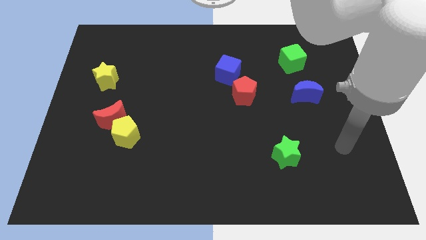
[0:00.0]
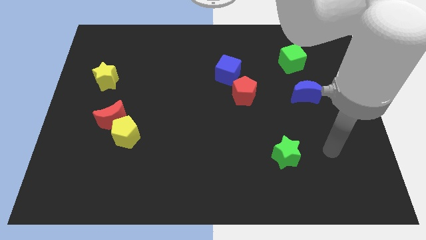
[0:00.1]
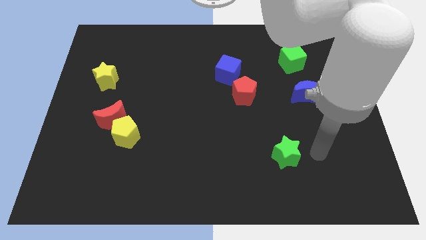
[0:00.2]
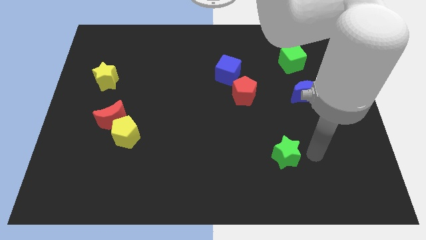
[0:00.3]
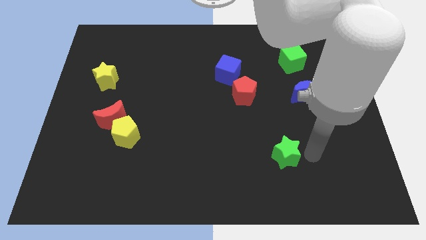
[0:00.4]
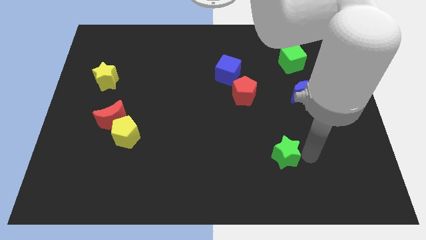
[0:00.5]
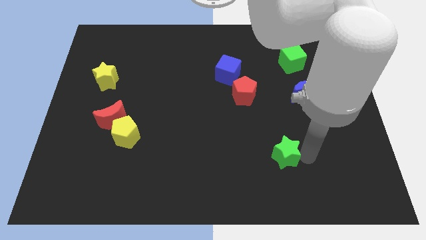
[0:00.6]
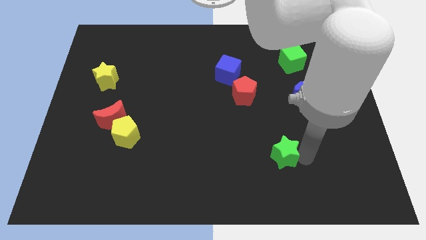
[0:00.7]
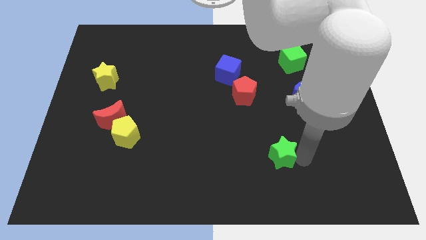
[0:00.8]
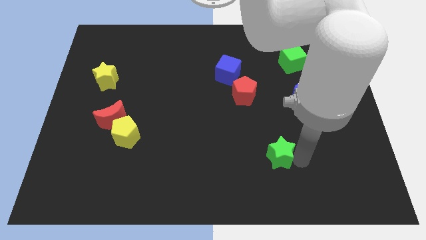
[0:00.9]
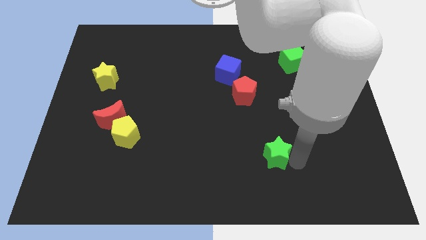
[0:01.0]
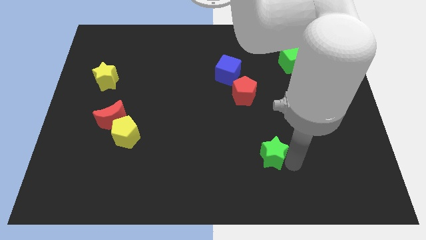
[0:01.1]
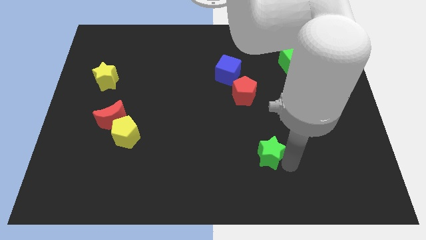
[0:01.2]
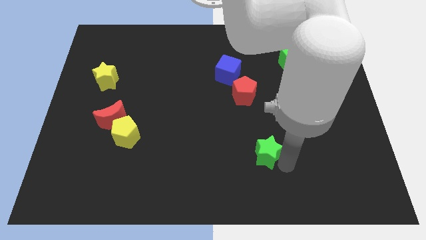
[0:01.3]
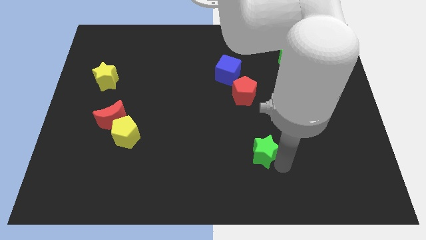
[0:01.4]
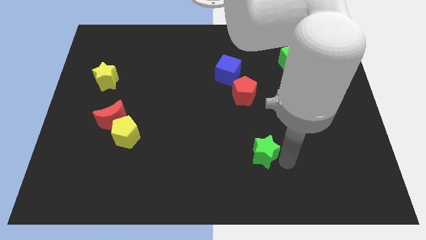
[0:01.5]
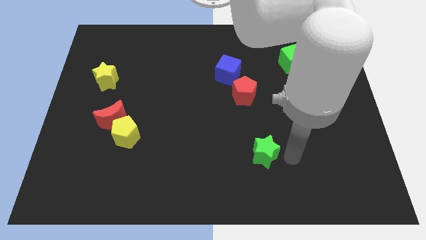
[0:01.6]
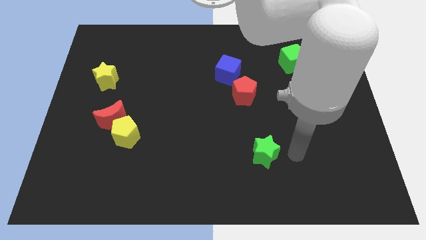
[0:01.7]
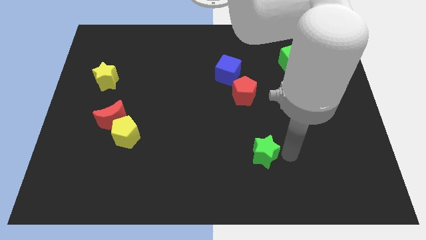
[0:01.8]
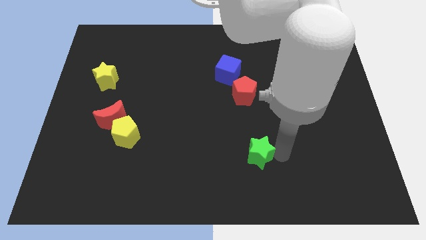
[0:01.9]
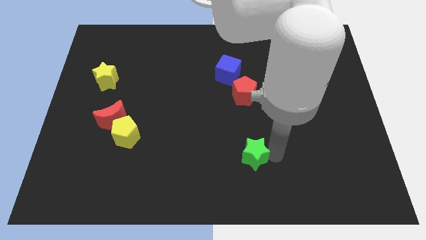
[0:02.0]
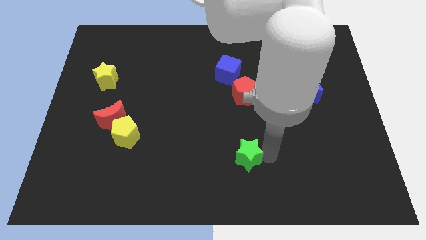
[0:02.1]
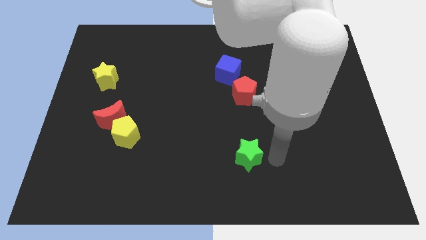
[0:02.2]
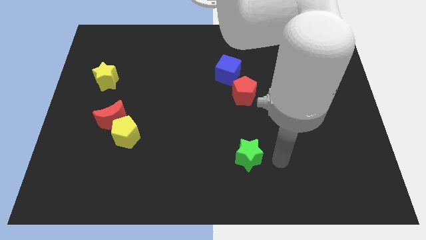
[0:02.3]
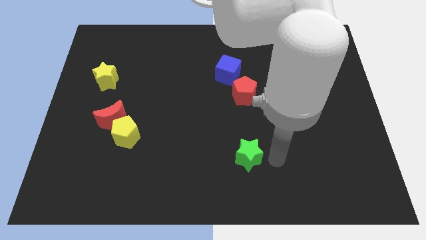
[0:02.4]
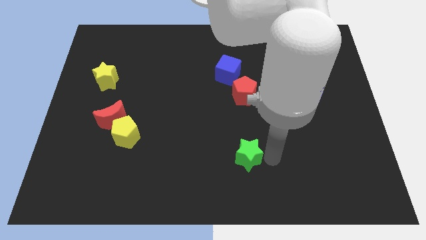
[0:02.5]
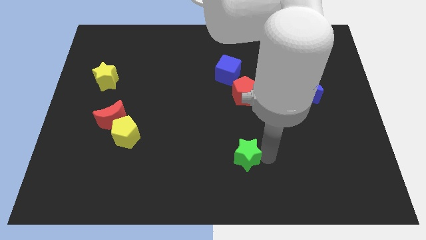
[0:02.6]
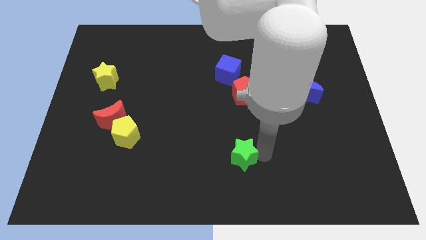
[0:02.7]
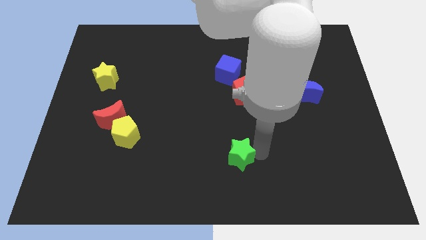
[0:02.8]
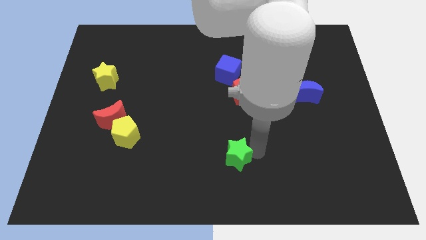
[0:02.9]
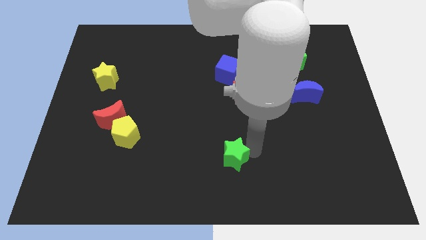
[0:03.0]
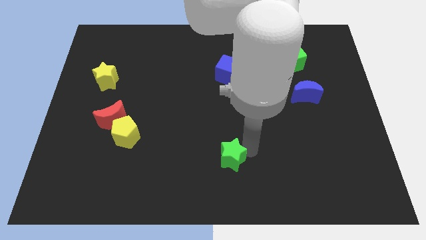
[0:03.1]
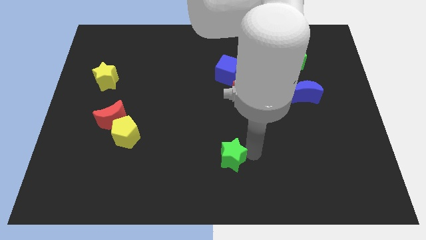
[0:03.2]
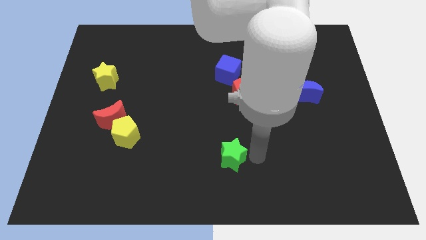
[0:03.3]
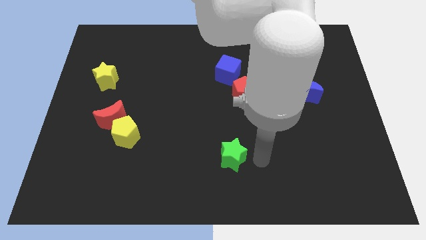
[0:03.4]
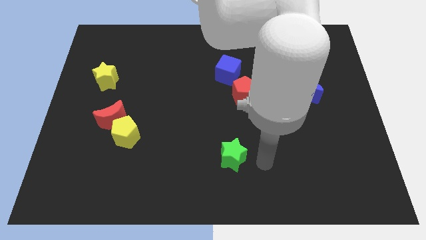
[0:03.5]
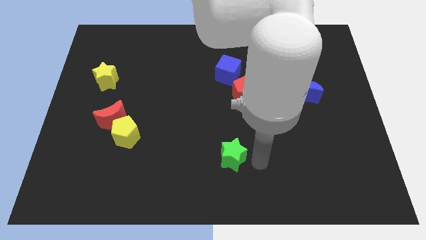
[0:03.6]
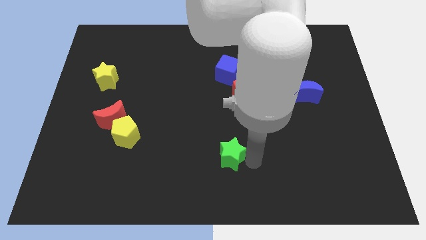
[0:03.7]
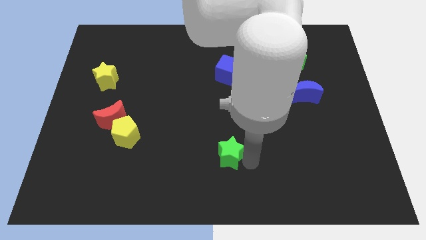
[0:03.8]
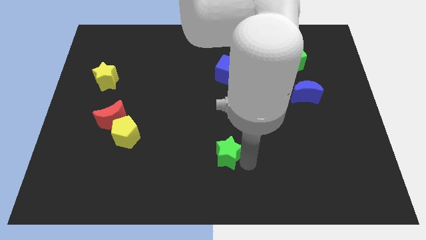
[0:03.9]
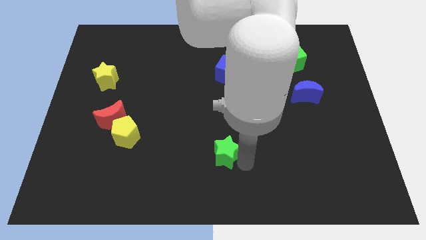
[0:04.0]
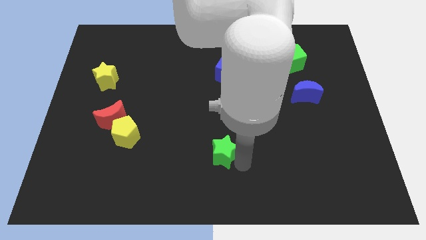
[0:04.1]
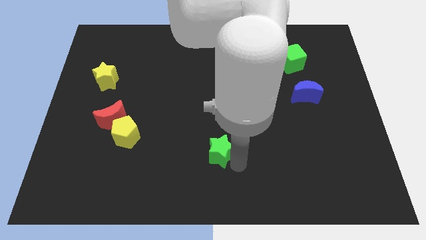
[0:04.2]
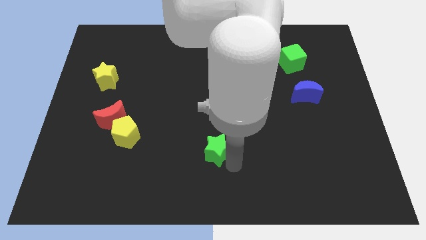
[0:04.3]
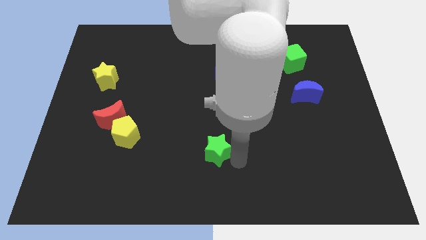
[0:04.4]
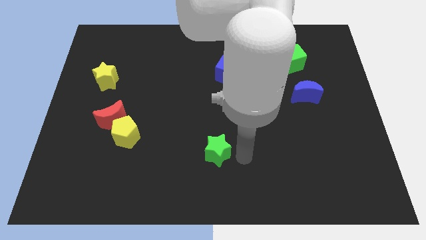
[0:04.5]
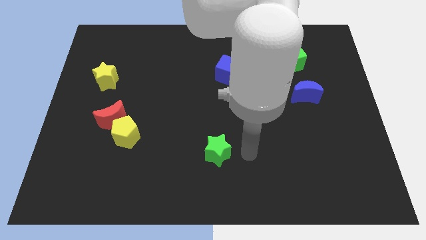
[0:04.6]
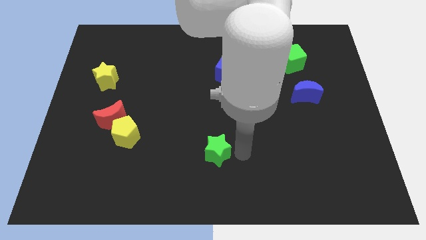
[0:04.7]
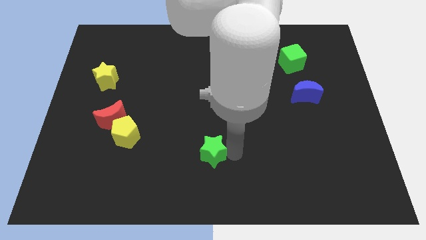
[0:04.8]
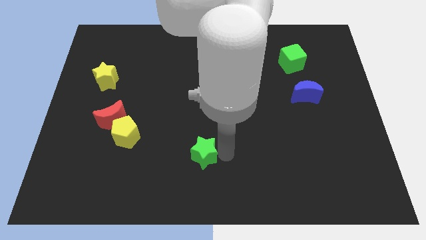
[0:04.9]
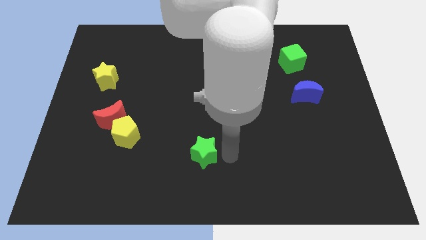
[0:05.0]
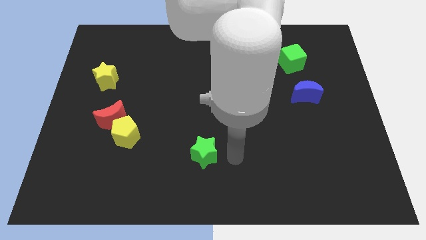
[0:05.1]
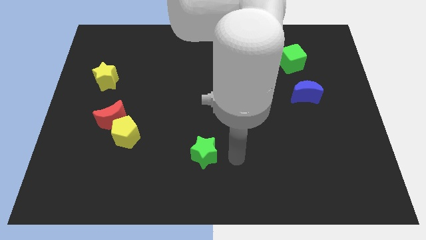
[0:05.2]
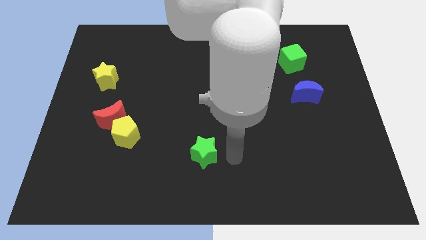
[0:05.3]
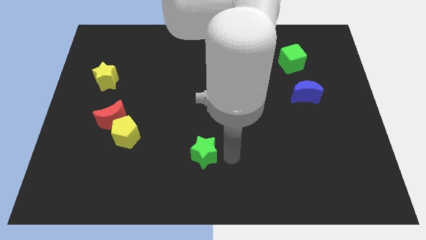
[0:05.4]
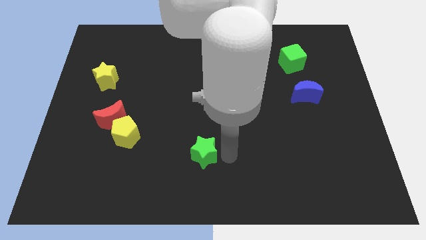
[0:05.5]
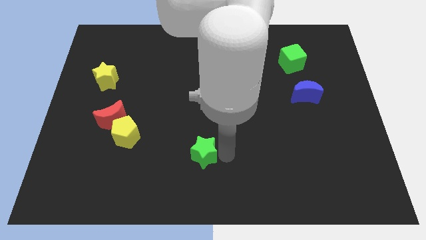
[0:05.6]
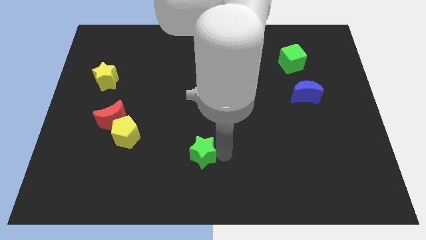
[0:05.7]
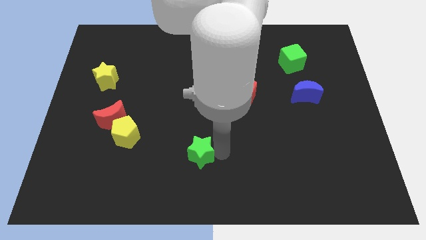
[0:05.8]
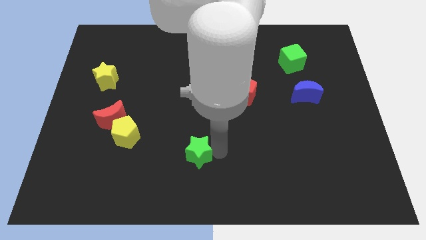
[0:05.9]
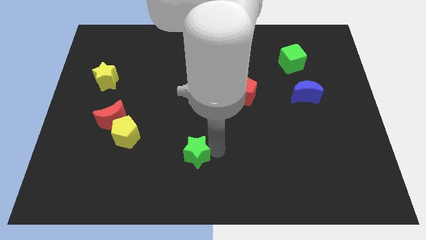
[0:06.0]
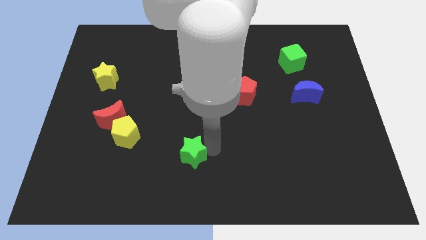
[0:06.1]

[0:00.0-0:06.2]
push the green star left

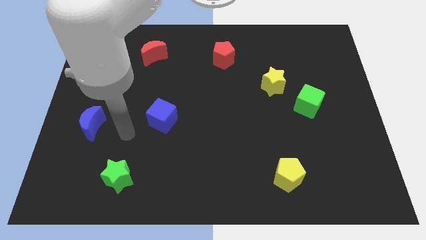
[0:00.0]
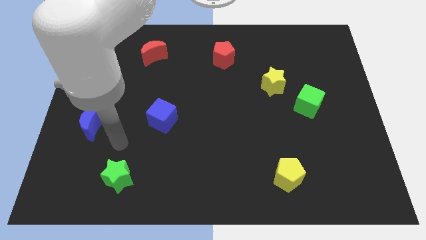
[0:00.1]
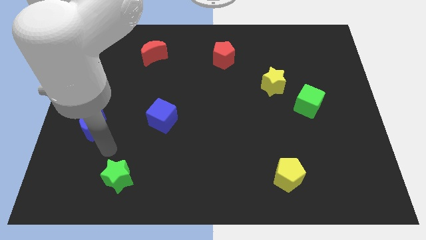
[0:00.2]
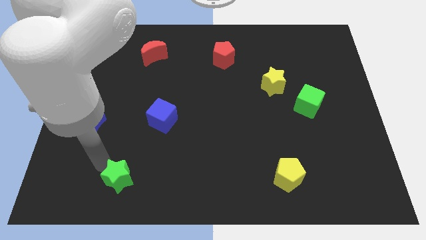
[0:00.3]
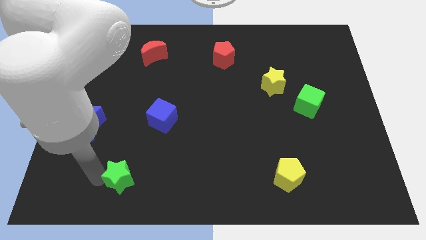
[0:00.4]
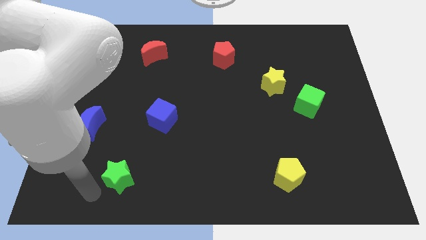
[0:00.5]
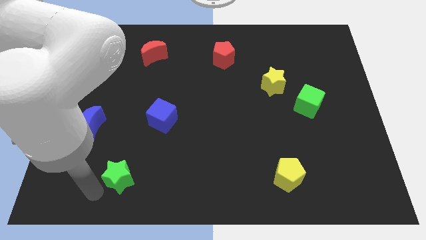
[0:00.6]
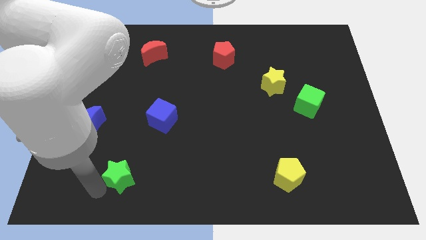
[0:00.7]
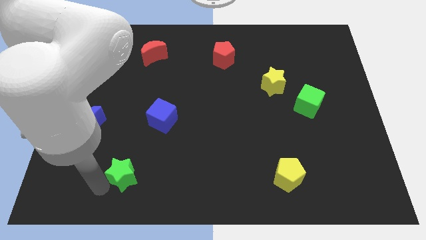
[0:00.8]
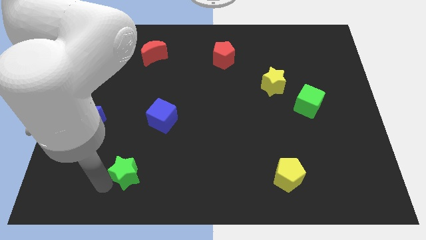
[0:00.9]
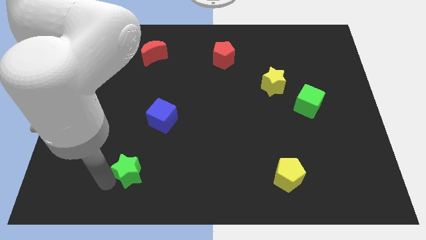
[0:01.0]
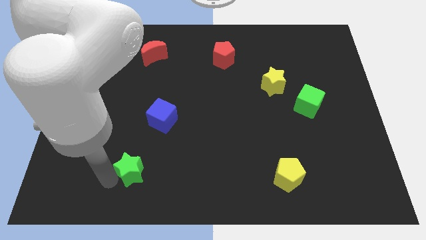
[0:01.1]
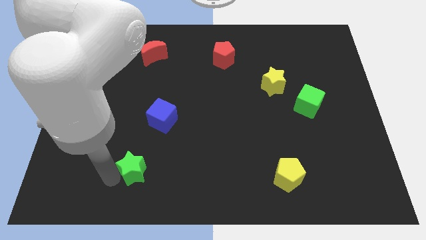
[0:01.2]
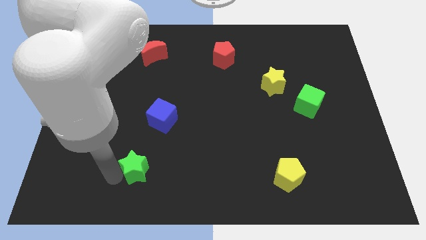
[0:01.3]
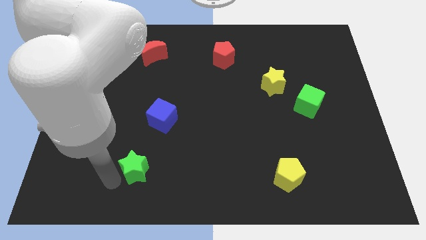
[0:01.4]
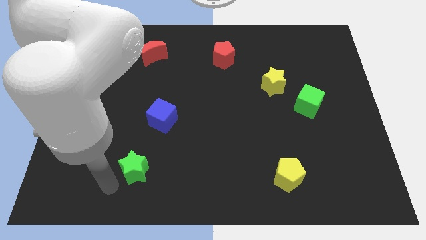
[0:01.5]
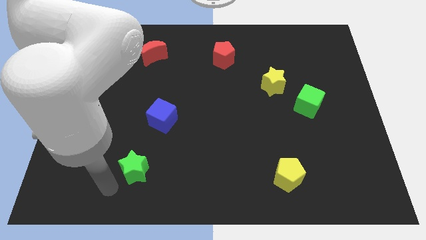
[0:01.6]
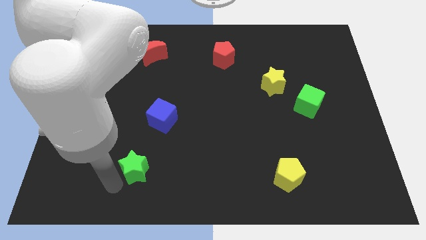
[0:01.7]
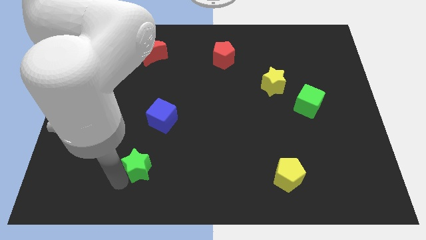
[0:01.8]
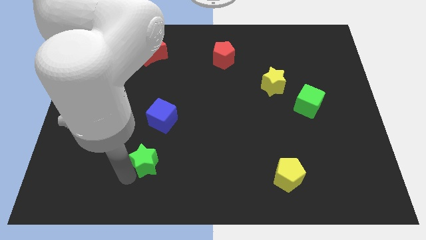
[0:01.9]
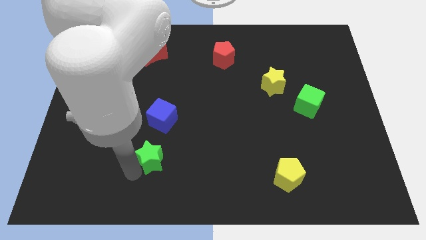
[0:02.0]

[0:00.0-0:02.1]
slightly slide the green star up and then right
